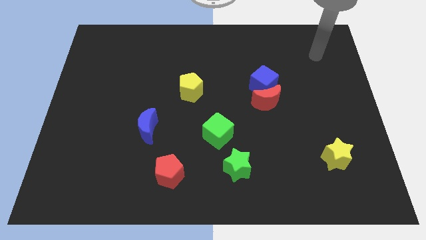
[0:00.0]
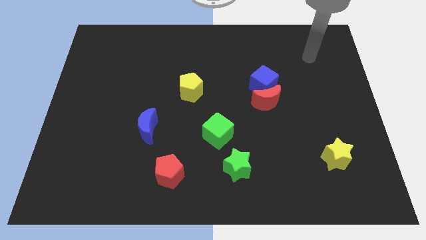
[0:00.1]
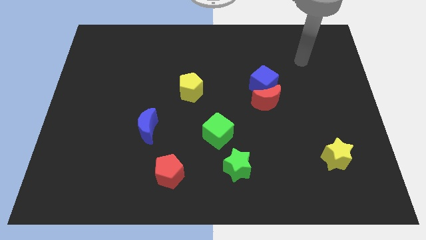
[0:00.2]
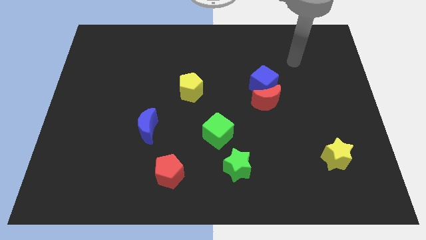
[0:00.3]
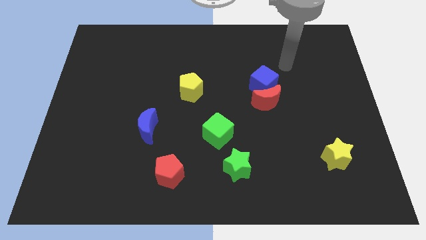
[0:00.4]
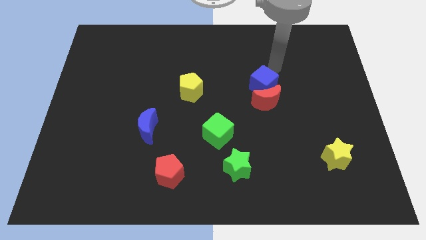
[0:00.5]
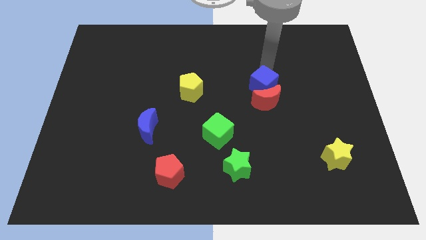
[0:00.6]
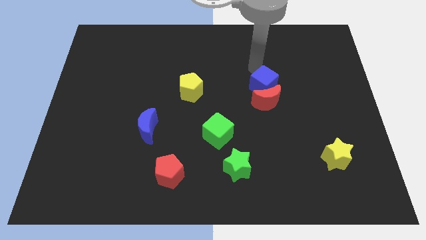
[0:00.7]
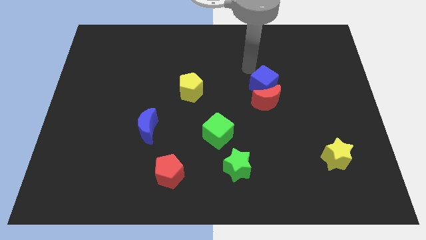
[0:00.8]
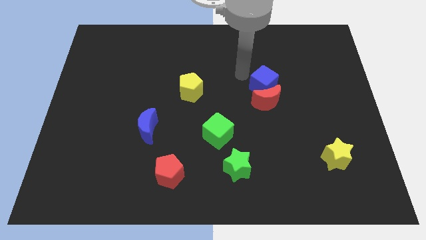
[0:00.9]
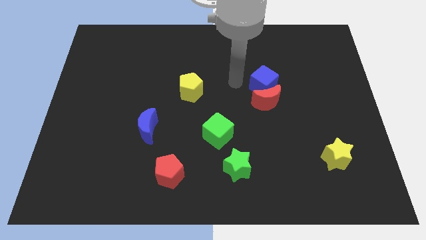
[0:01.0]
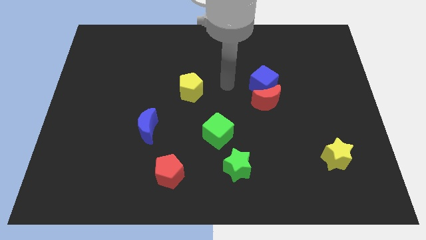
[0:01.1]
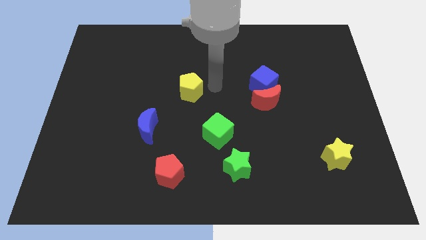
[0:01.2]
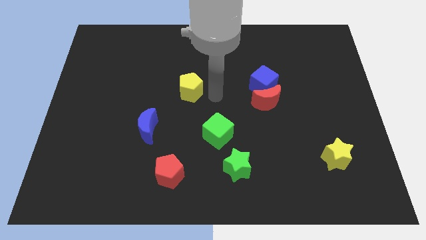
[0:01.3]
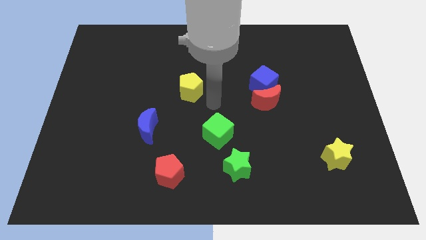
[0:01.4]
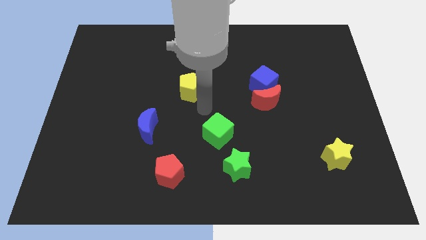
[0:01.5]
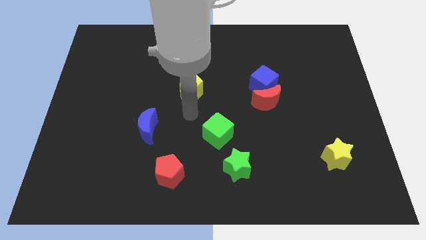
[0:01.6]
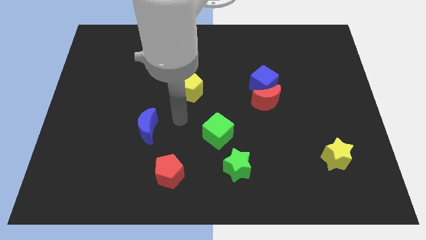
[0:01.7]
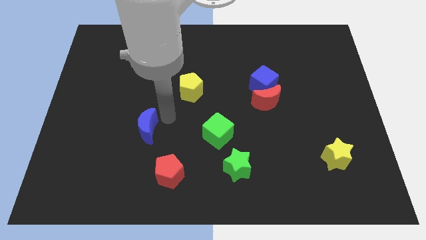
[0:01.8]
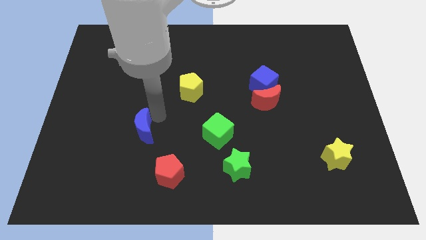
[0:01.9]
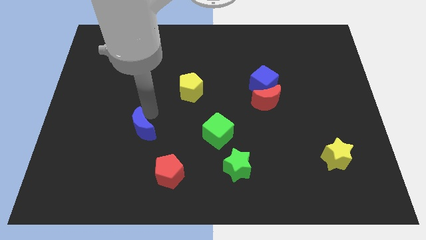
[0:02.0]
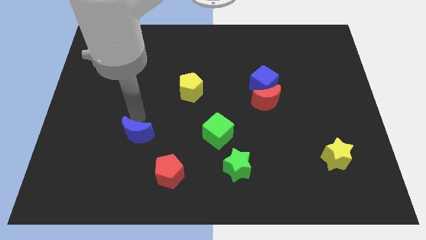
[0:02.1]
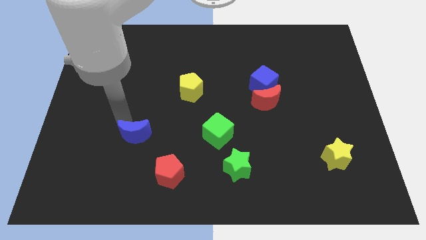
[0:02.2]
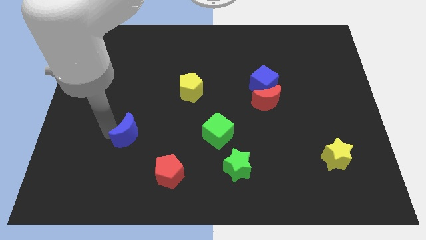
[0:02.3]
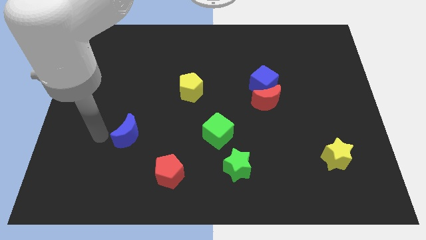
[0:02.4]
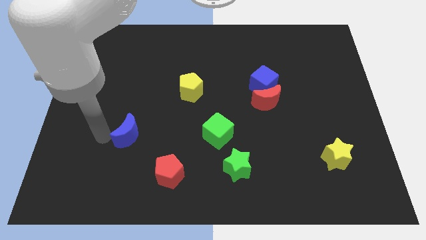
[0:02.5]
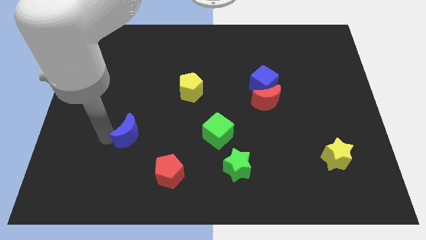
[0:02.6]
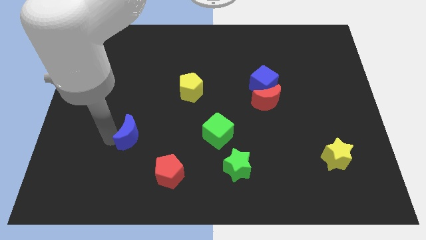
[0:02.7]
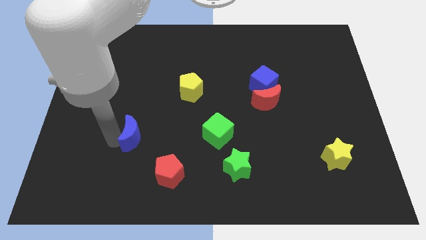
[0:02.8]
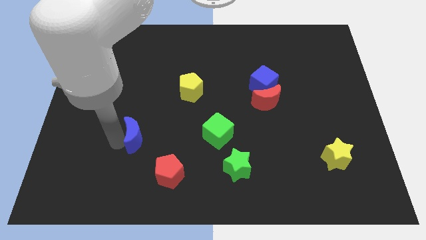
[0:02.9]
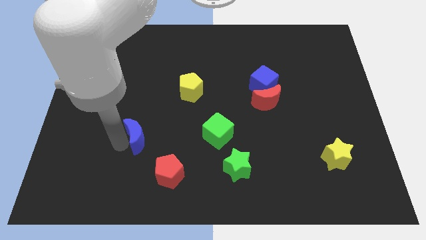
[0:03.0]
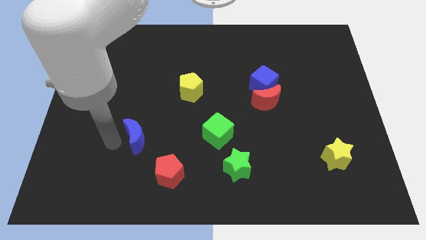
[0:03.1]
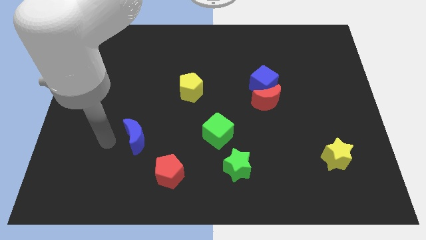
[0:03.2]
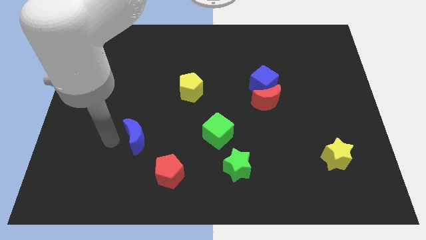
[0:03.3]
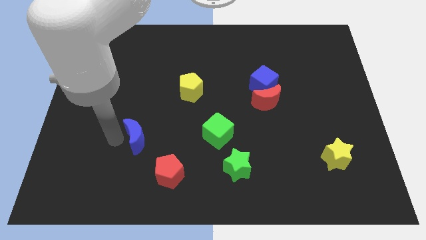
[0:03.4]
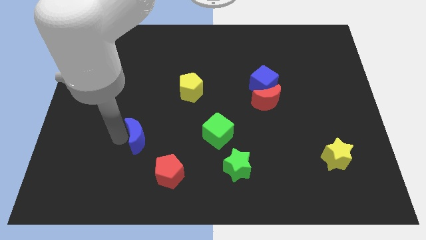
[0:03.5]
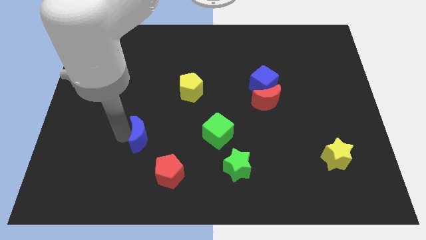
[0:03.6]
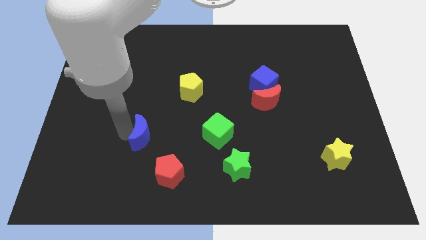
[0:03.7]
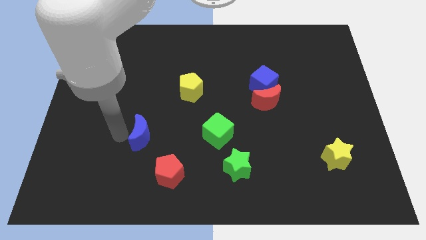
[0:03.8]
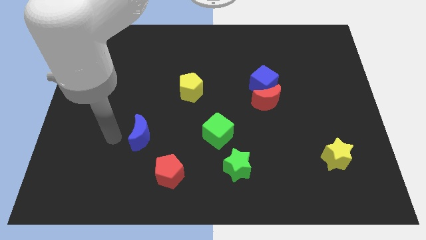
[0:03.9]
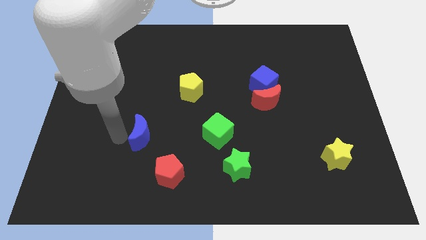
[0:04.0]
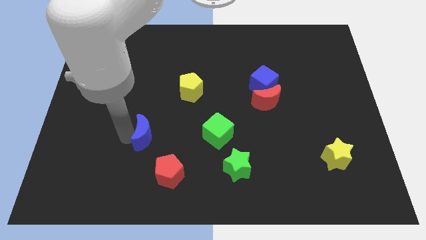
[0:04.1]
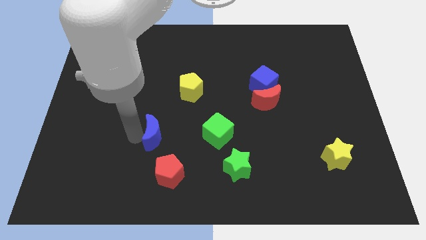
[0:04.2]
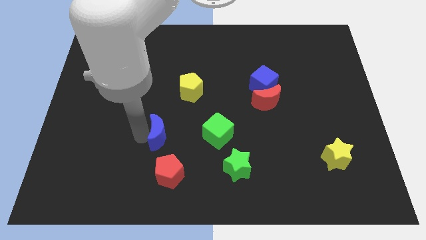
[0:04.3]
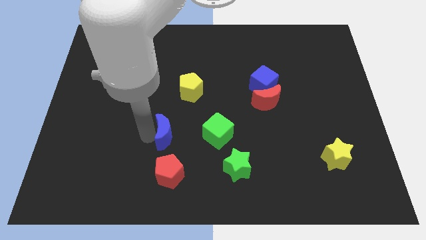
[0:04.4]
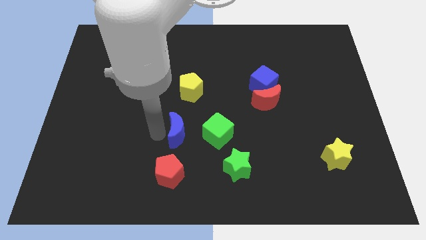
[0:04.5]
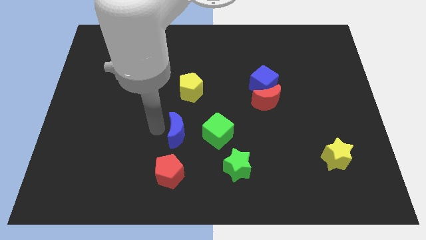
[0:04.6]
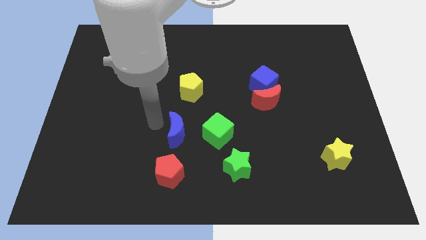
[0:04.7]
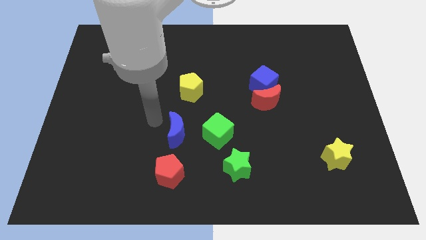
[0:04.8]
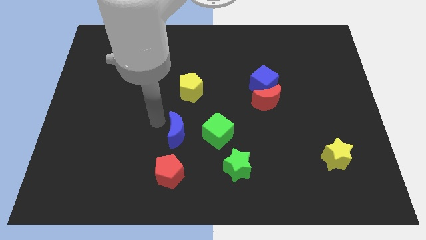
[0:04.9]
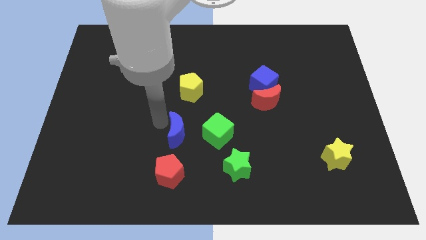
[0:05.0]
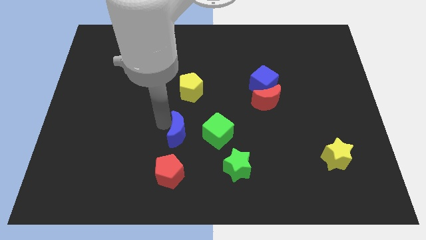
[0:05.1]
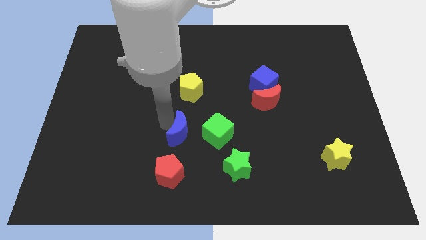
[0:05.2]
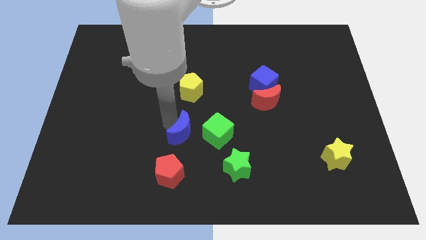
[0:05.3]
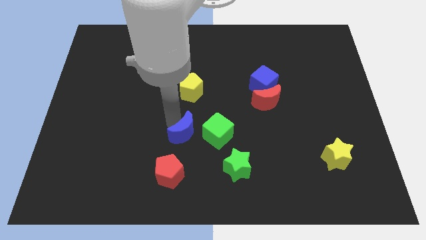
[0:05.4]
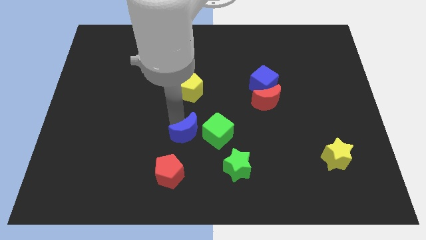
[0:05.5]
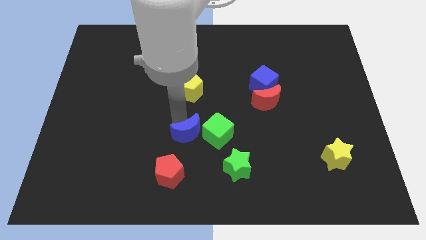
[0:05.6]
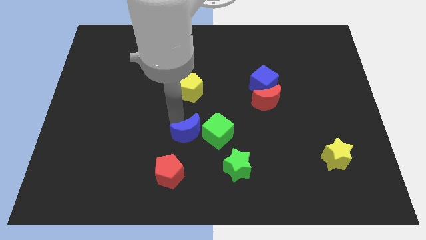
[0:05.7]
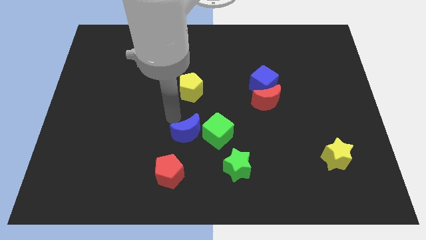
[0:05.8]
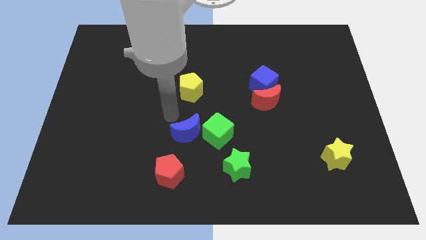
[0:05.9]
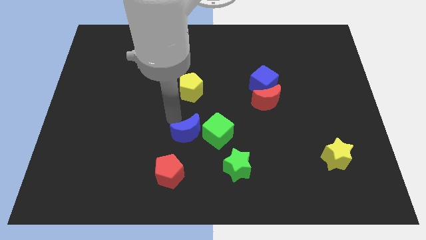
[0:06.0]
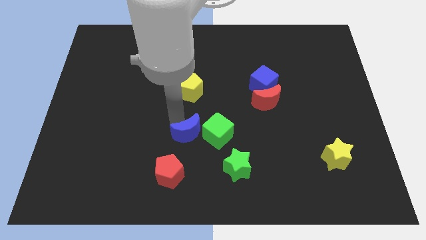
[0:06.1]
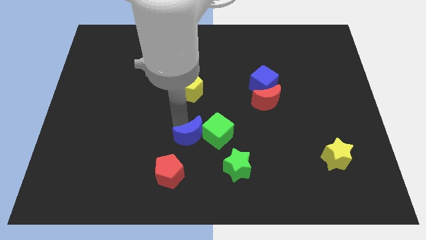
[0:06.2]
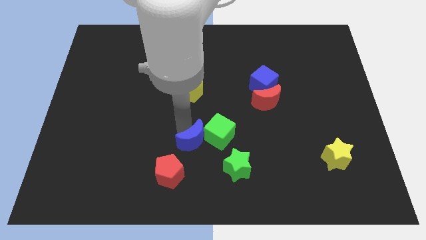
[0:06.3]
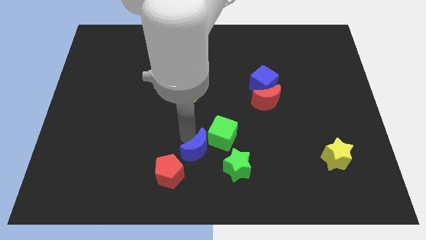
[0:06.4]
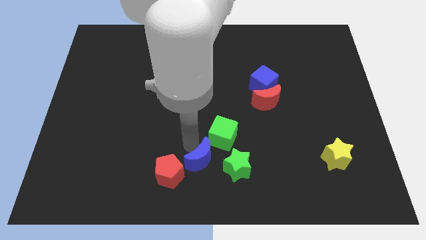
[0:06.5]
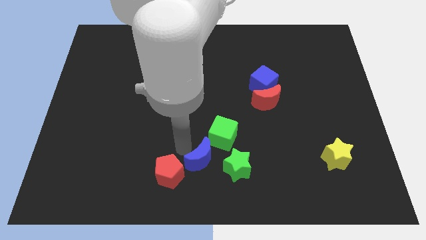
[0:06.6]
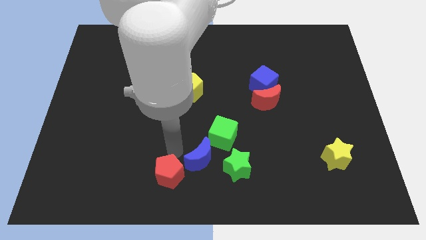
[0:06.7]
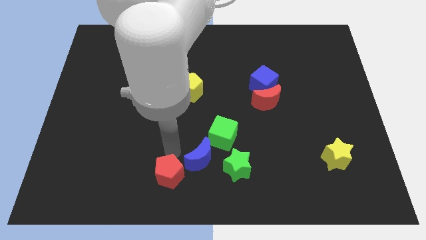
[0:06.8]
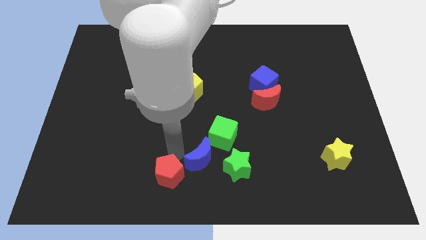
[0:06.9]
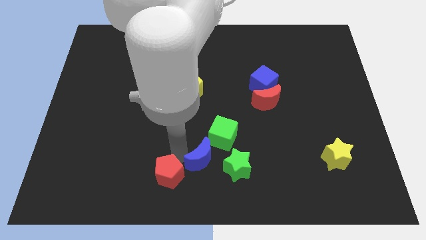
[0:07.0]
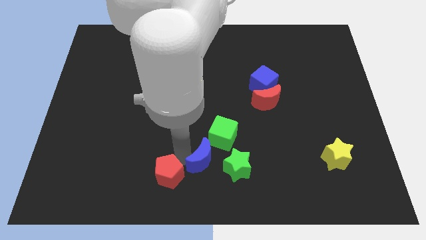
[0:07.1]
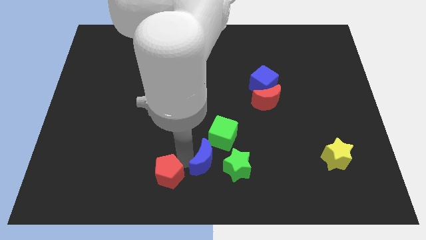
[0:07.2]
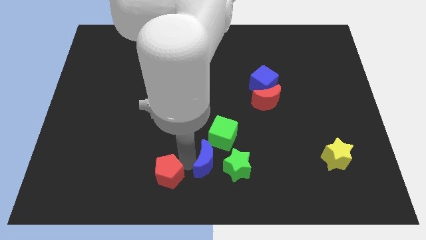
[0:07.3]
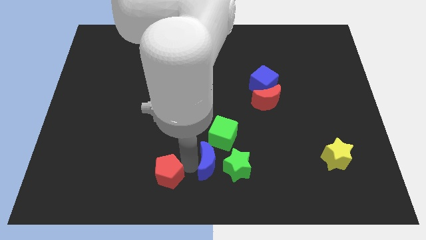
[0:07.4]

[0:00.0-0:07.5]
put the blue moon next to the green star
